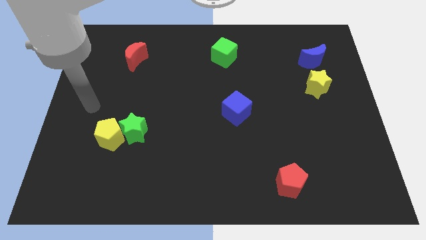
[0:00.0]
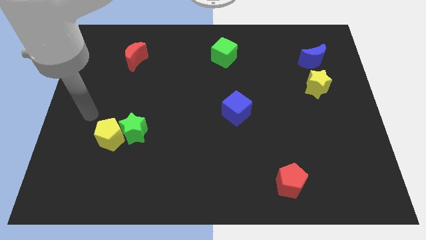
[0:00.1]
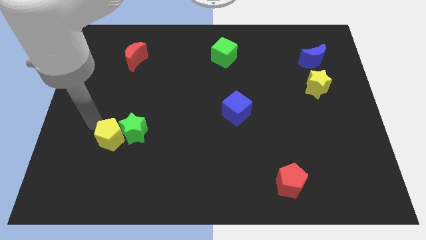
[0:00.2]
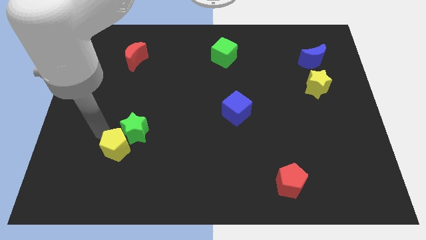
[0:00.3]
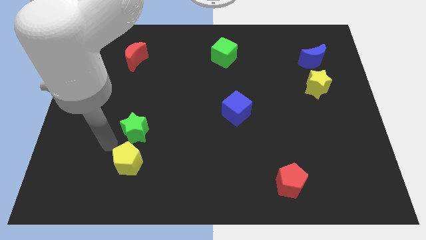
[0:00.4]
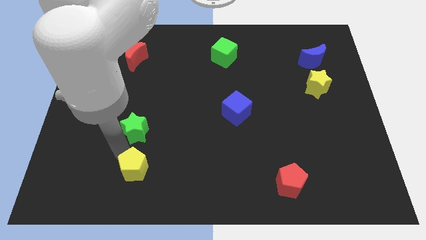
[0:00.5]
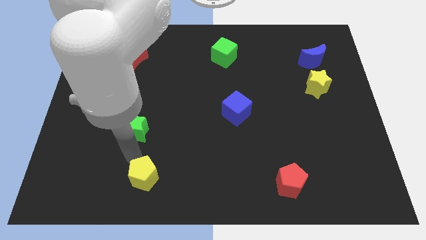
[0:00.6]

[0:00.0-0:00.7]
move the green star away from the yellow pentagon

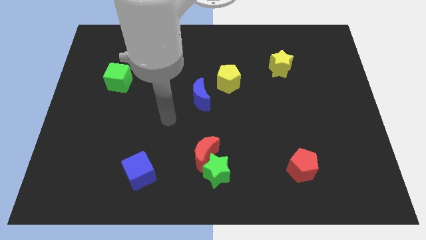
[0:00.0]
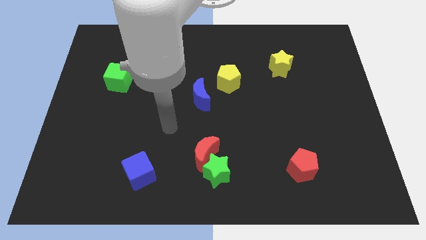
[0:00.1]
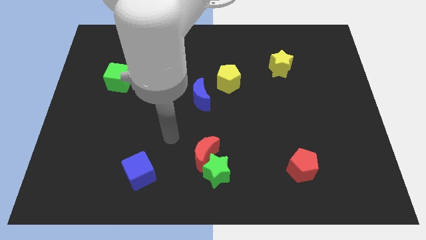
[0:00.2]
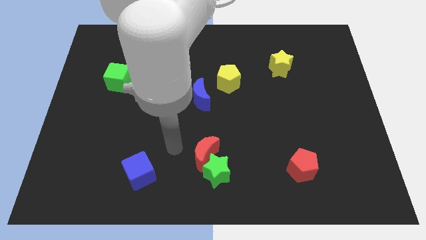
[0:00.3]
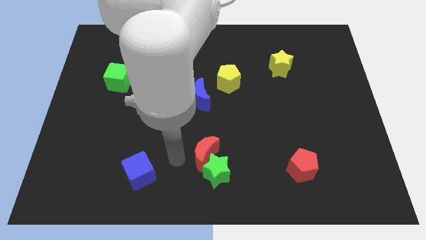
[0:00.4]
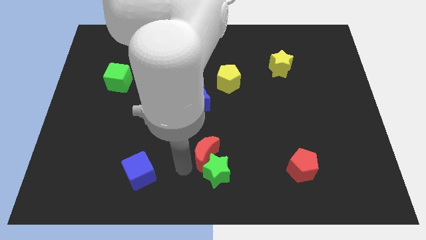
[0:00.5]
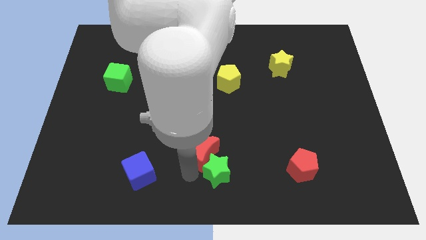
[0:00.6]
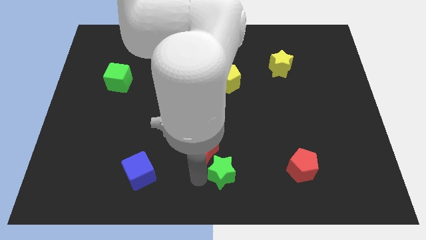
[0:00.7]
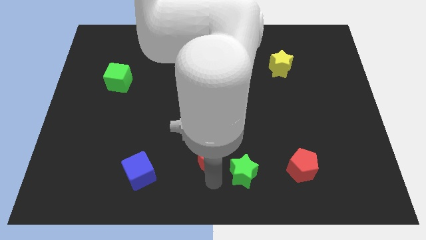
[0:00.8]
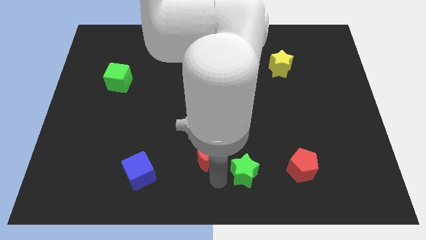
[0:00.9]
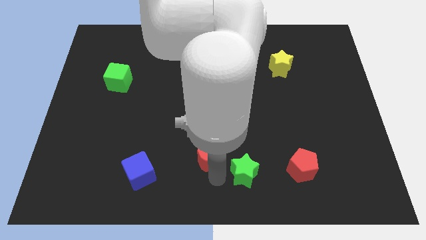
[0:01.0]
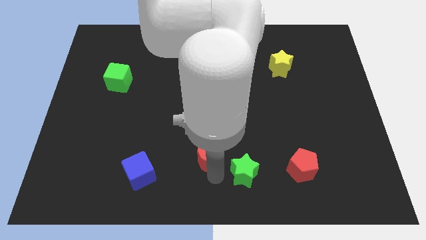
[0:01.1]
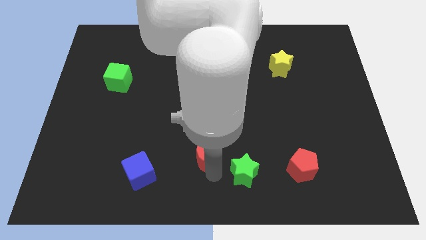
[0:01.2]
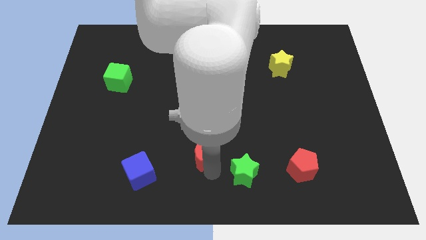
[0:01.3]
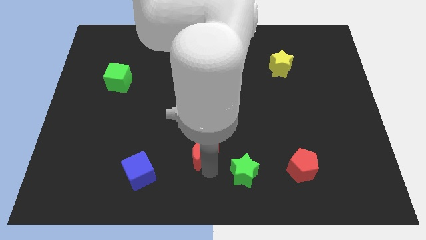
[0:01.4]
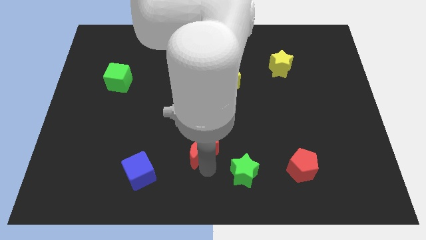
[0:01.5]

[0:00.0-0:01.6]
separate the red moon from the green star

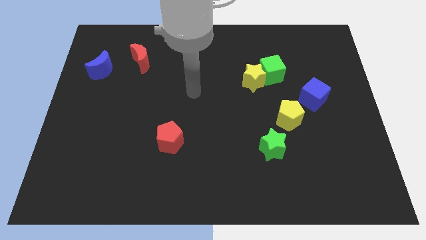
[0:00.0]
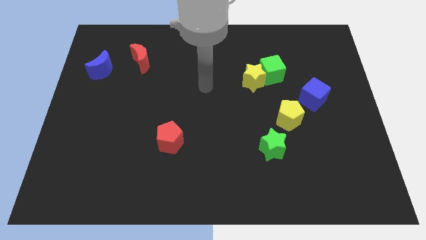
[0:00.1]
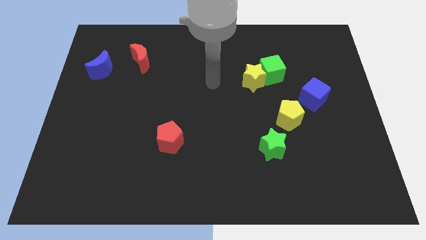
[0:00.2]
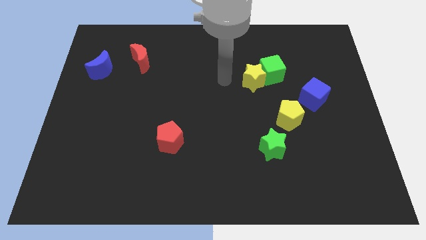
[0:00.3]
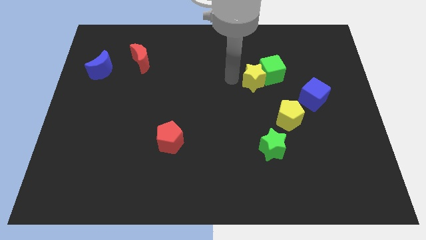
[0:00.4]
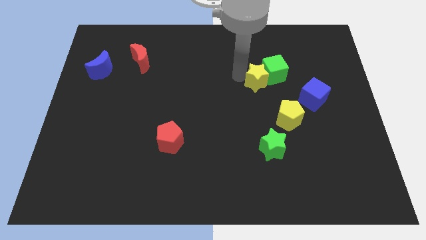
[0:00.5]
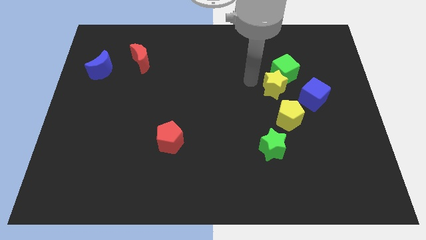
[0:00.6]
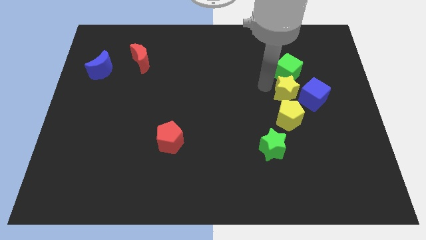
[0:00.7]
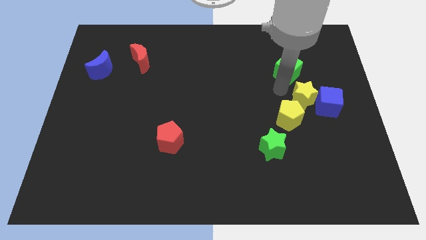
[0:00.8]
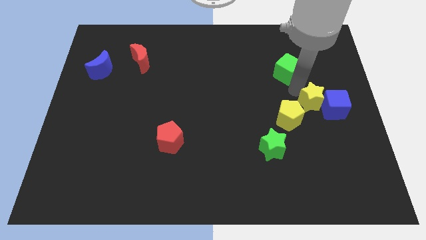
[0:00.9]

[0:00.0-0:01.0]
move the green cube away from the yellow star

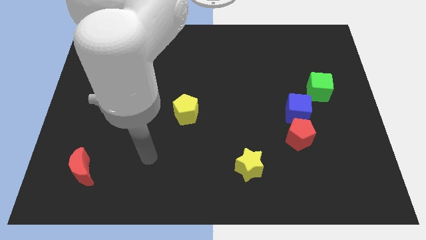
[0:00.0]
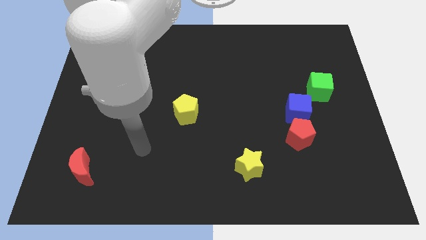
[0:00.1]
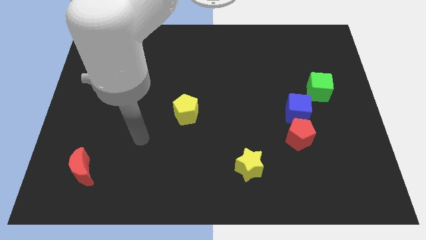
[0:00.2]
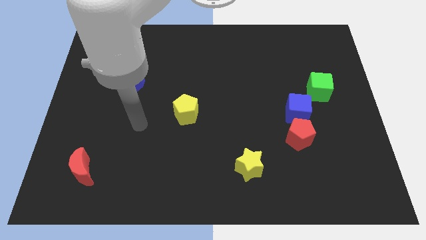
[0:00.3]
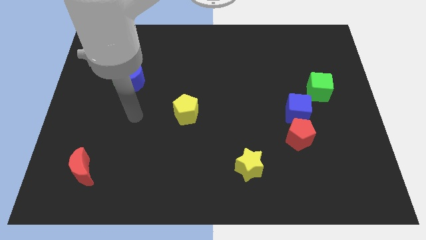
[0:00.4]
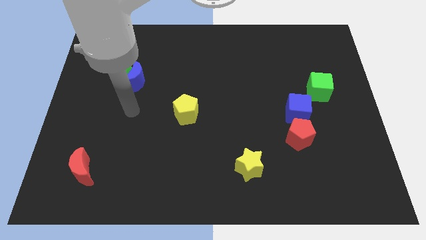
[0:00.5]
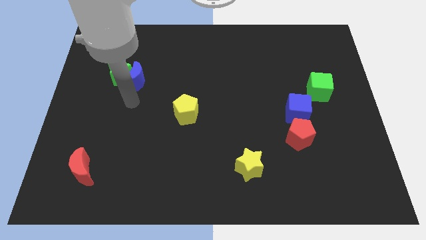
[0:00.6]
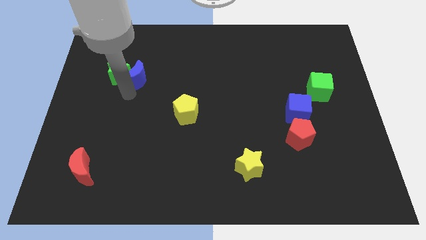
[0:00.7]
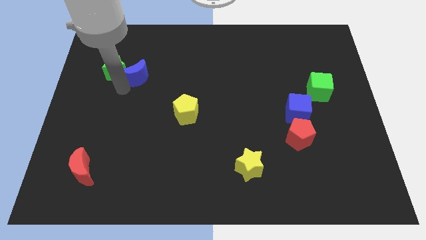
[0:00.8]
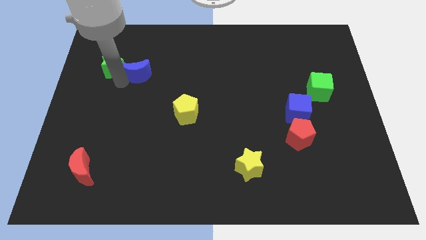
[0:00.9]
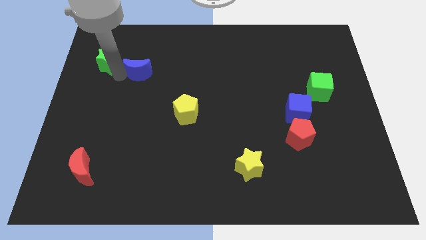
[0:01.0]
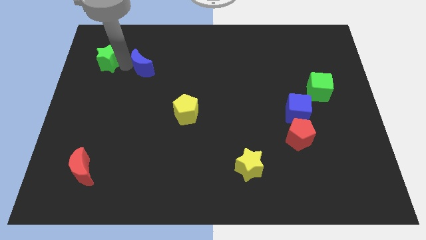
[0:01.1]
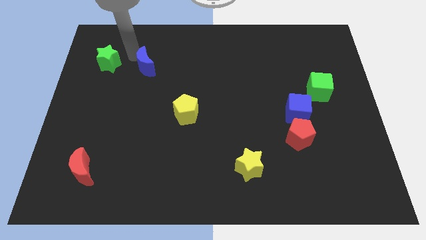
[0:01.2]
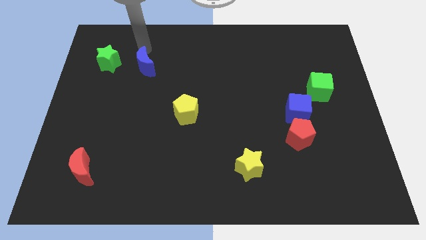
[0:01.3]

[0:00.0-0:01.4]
move the blue moon away from the green star

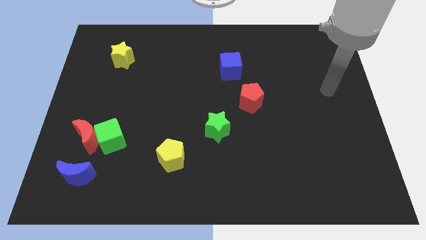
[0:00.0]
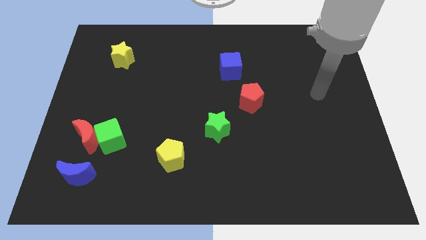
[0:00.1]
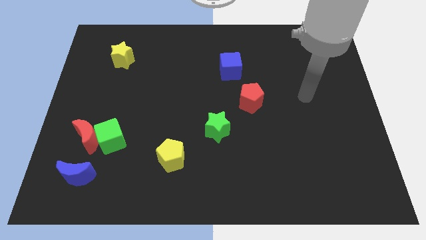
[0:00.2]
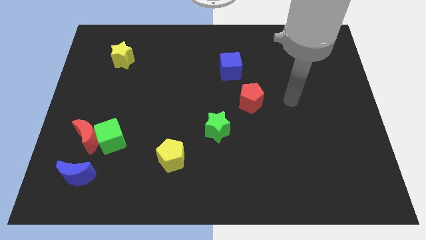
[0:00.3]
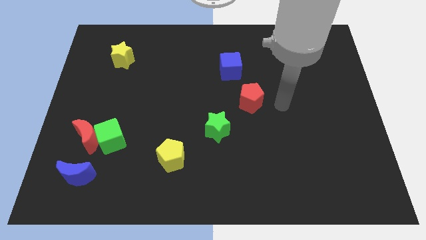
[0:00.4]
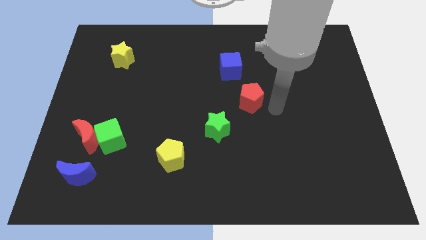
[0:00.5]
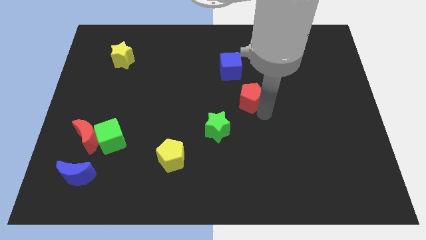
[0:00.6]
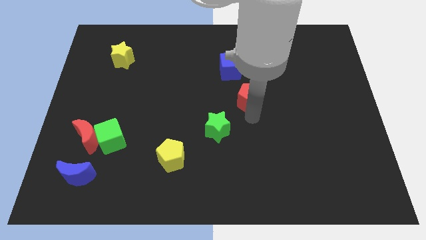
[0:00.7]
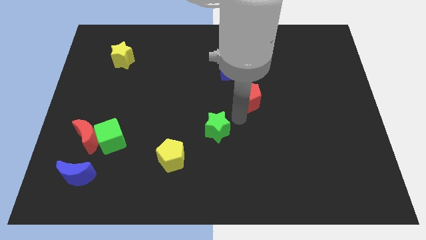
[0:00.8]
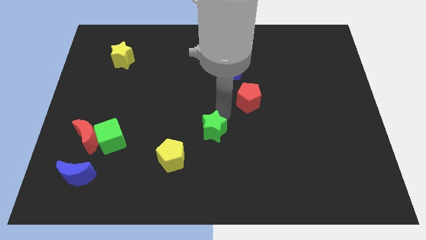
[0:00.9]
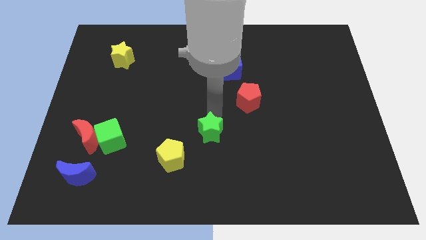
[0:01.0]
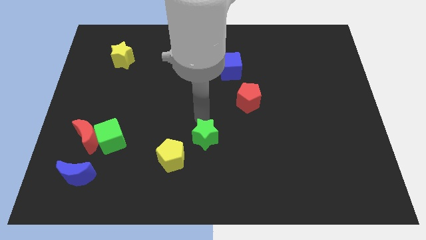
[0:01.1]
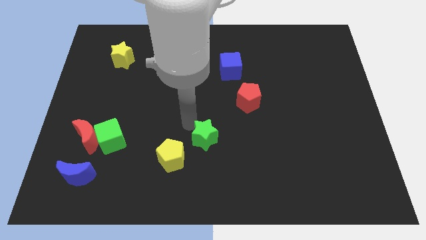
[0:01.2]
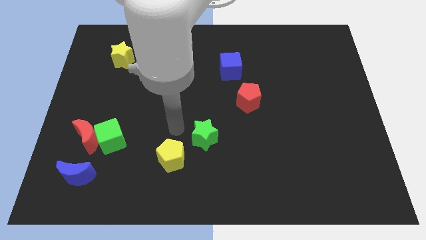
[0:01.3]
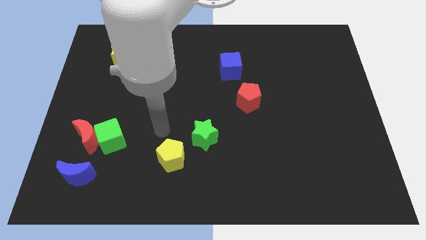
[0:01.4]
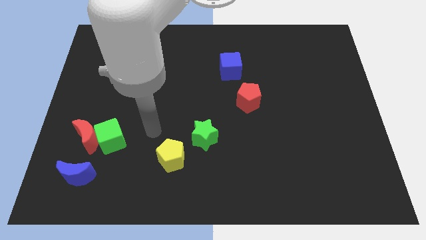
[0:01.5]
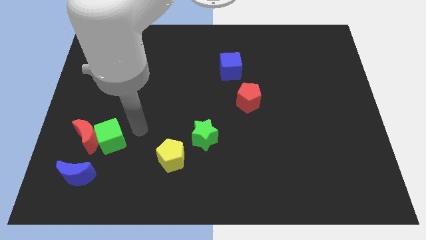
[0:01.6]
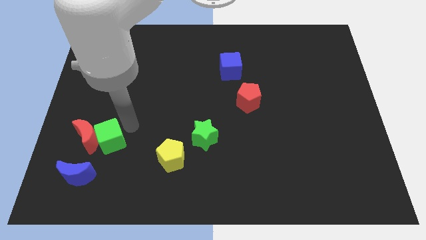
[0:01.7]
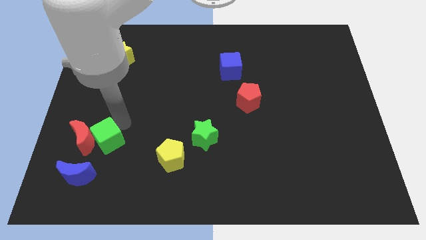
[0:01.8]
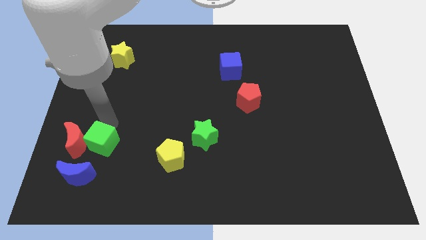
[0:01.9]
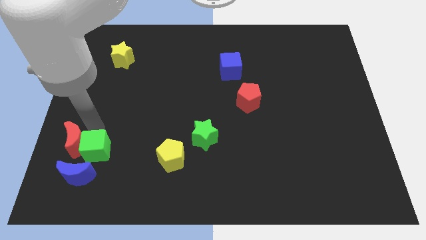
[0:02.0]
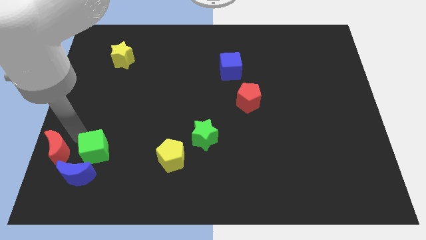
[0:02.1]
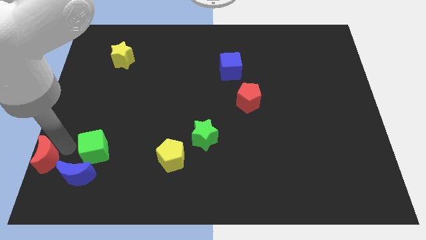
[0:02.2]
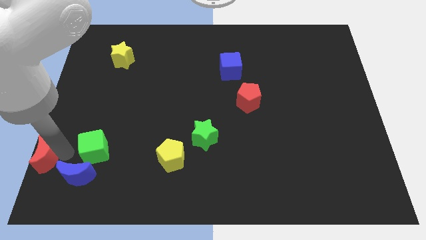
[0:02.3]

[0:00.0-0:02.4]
separate the green cube from the red moon

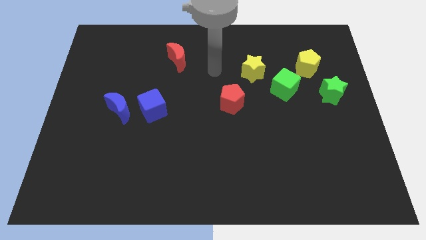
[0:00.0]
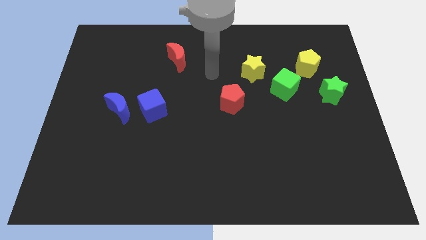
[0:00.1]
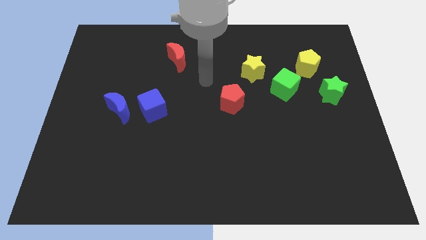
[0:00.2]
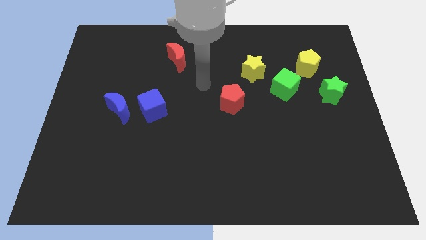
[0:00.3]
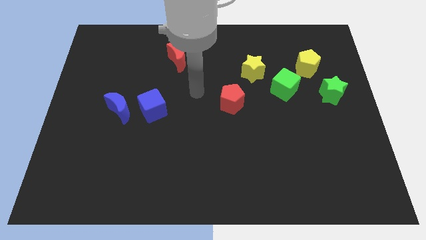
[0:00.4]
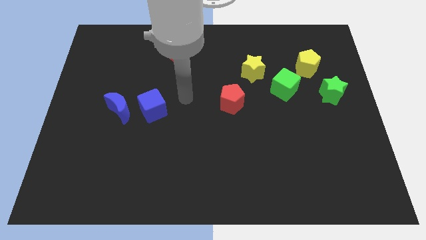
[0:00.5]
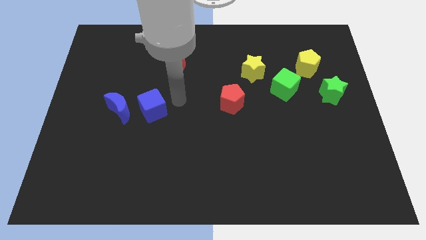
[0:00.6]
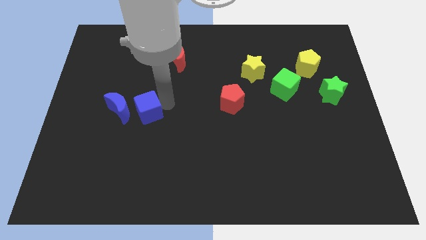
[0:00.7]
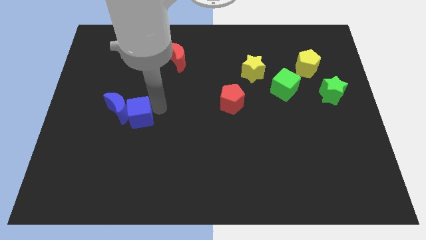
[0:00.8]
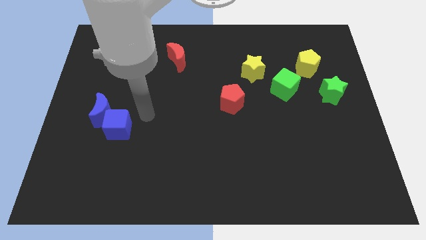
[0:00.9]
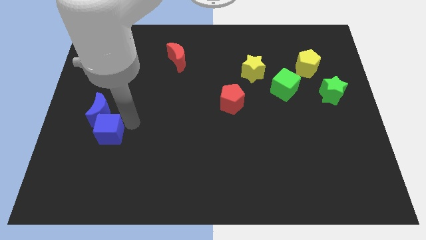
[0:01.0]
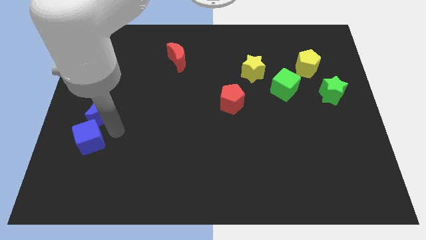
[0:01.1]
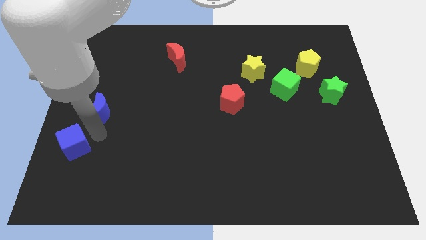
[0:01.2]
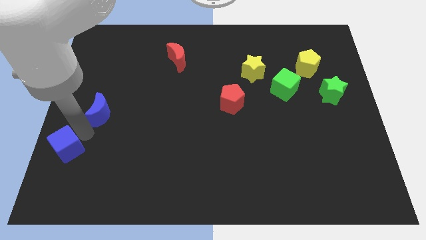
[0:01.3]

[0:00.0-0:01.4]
pull the blue moon apart from the blue cube

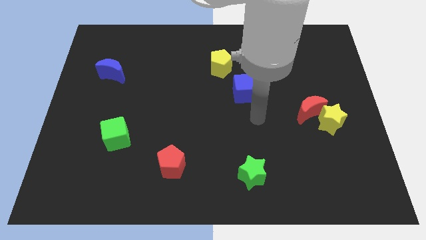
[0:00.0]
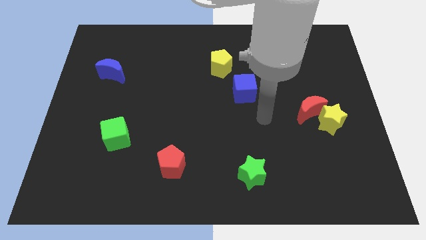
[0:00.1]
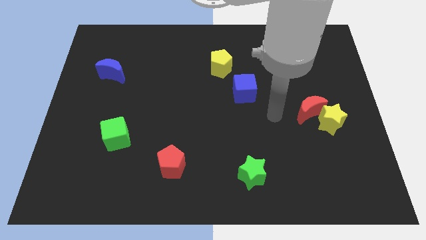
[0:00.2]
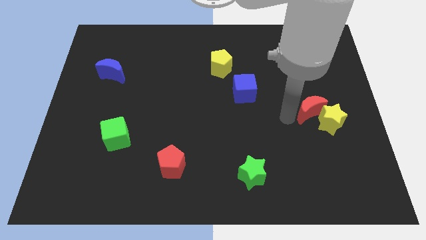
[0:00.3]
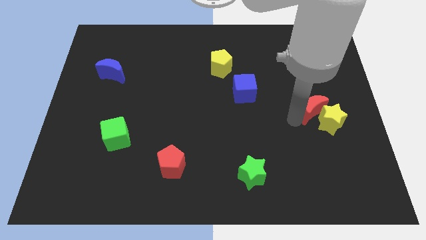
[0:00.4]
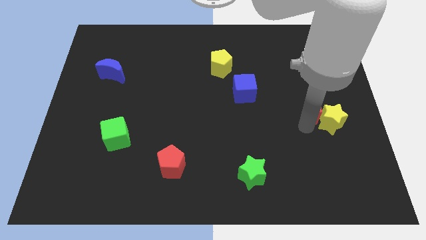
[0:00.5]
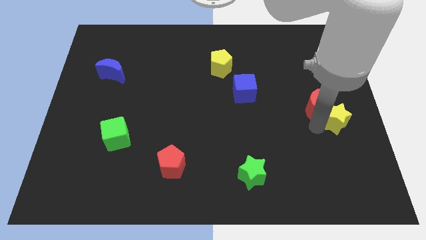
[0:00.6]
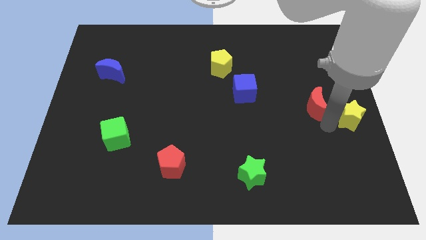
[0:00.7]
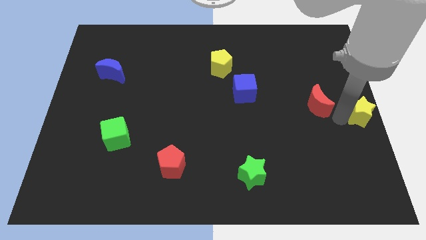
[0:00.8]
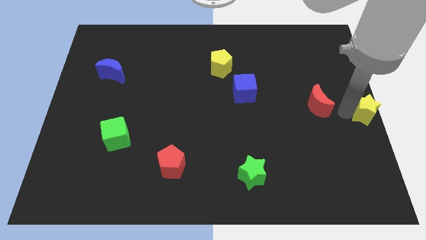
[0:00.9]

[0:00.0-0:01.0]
move the red moon away from the yellow star
